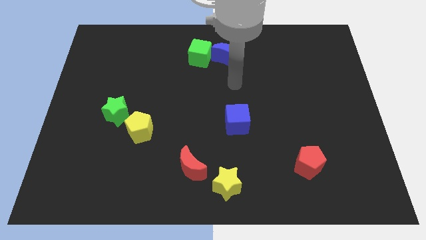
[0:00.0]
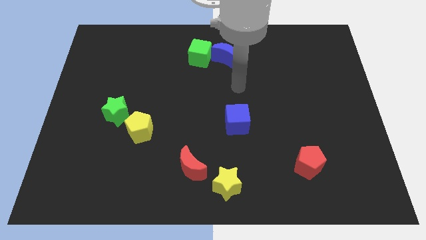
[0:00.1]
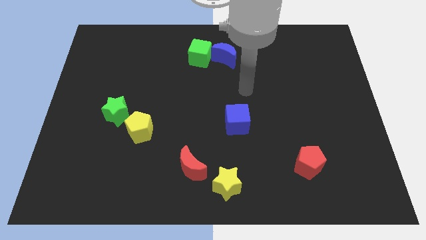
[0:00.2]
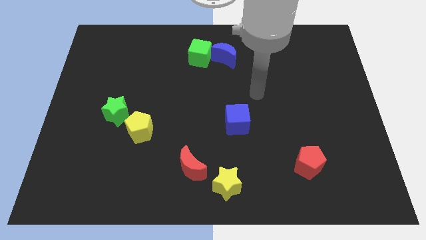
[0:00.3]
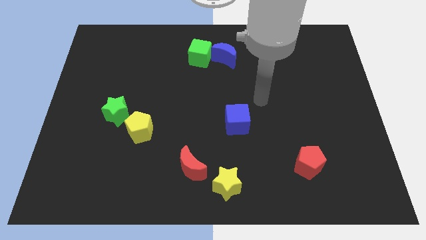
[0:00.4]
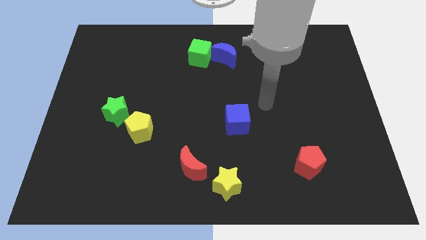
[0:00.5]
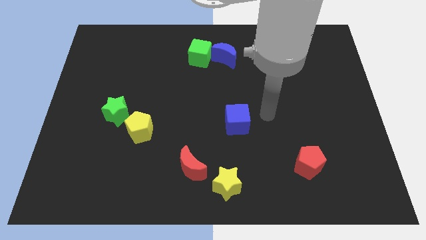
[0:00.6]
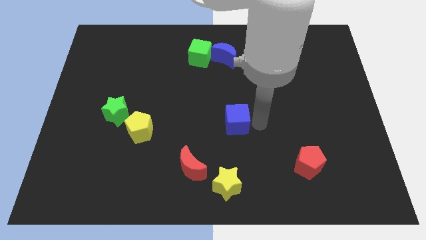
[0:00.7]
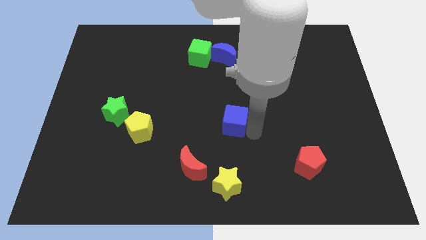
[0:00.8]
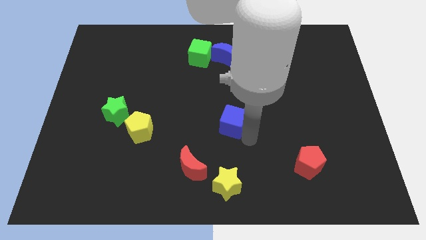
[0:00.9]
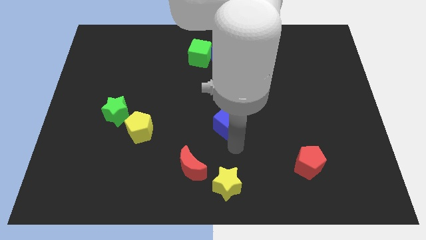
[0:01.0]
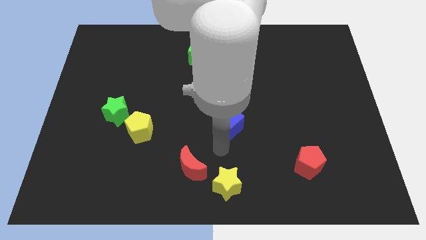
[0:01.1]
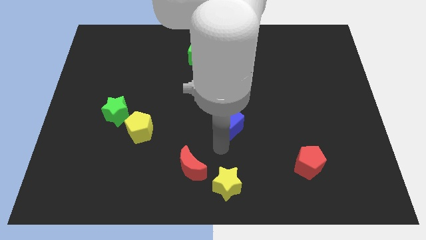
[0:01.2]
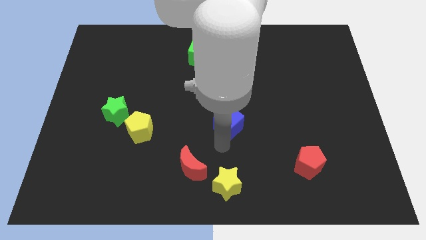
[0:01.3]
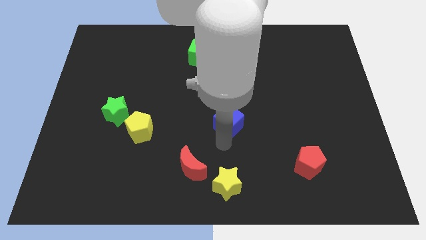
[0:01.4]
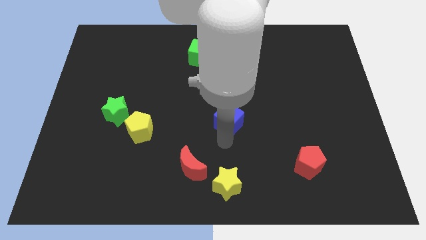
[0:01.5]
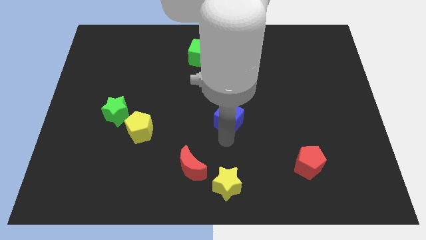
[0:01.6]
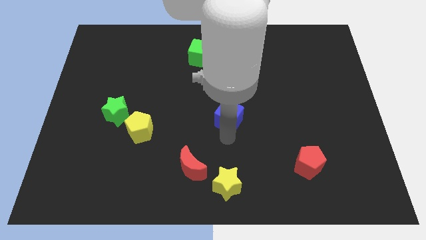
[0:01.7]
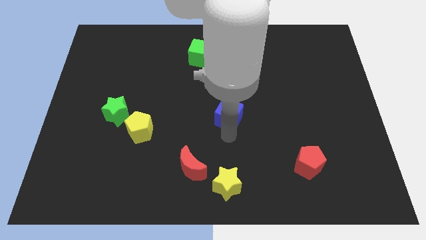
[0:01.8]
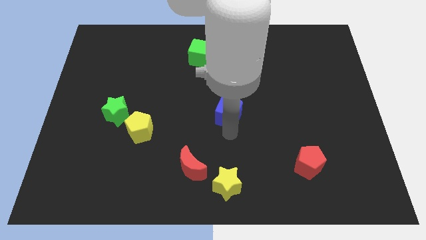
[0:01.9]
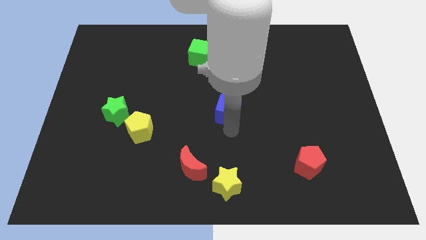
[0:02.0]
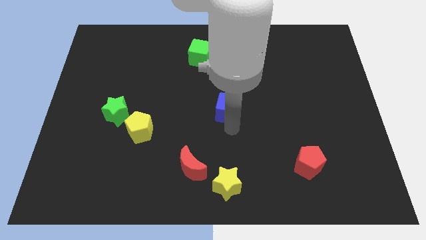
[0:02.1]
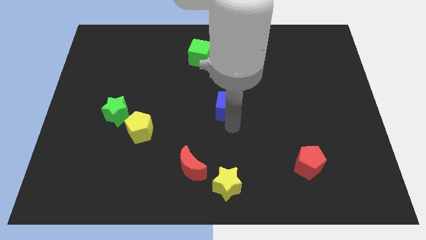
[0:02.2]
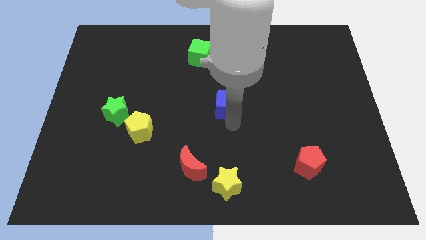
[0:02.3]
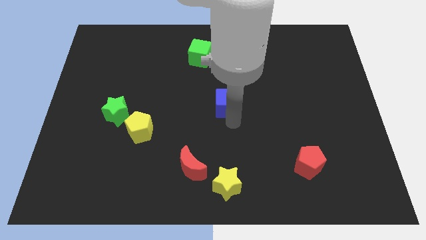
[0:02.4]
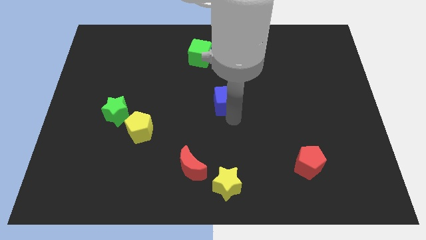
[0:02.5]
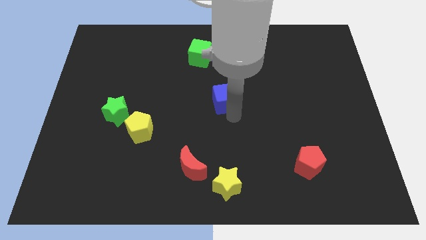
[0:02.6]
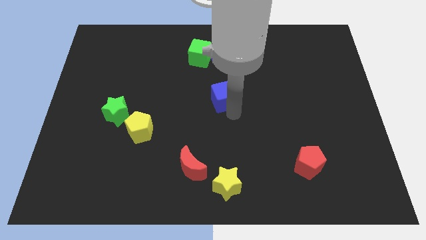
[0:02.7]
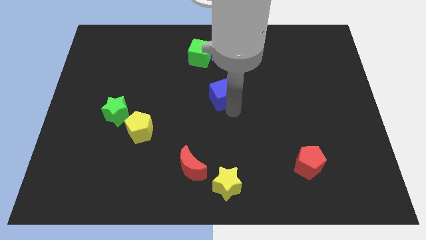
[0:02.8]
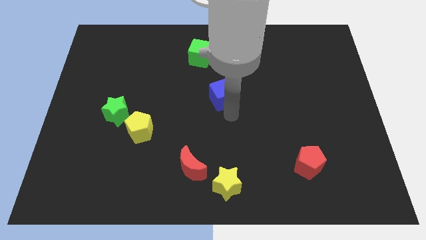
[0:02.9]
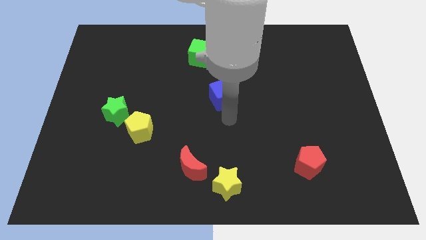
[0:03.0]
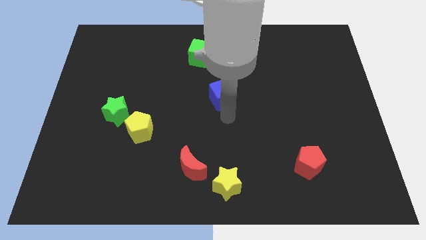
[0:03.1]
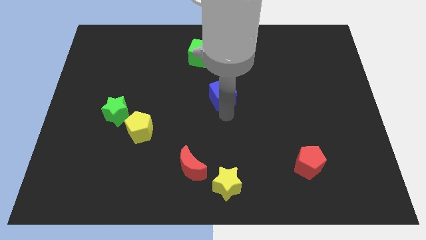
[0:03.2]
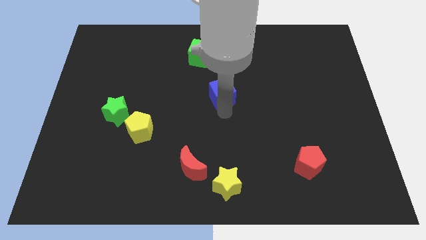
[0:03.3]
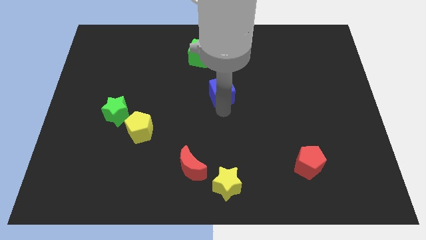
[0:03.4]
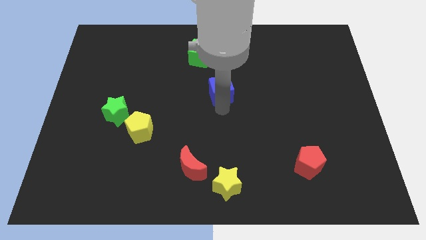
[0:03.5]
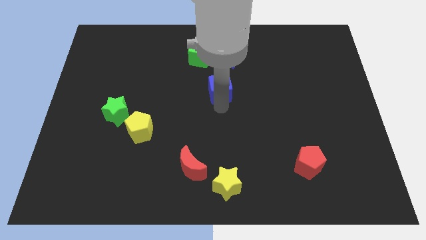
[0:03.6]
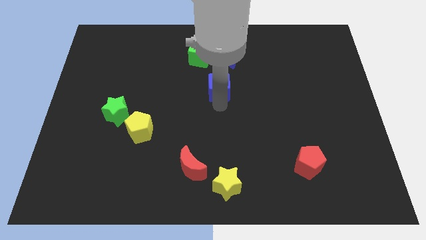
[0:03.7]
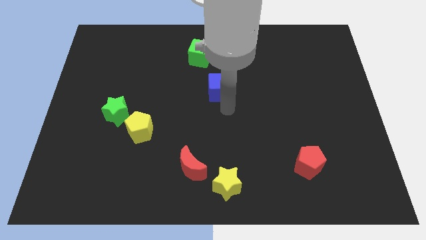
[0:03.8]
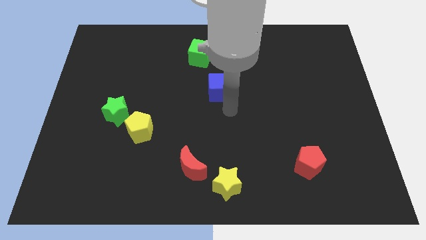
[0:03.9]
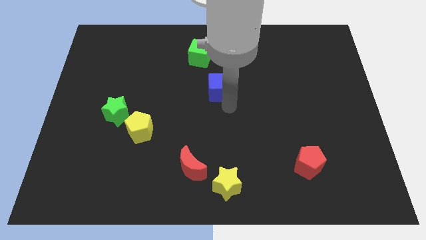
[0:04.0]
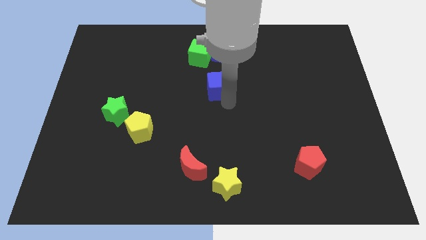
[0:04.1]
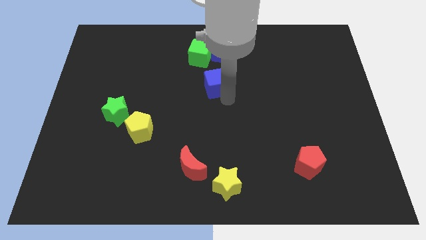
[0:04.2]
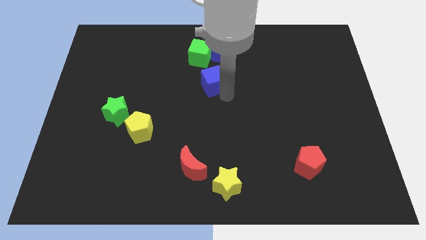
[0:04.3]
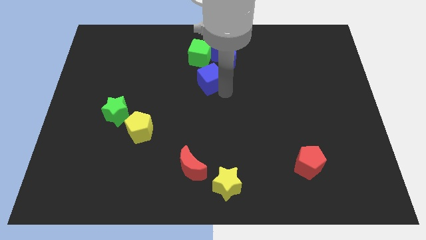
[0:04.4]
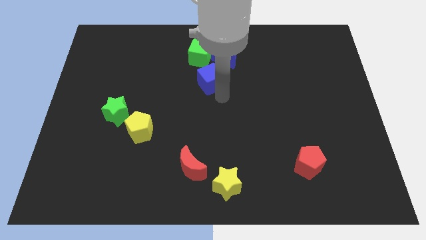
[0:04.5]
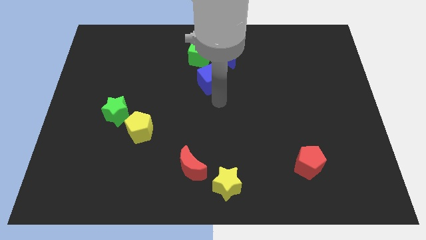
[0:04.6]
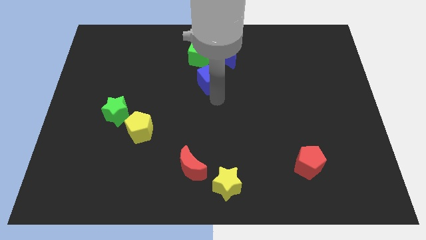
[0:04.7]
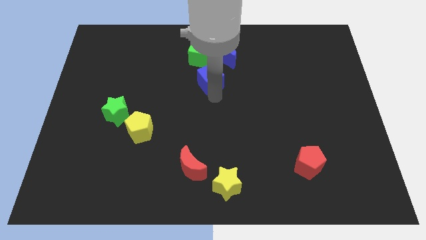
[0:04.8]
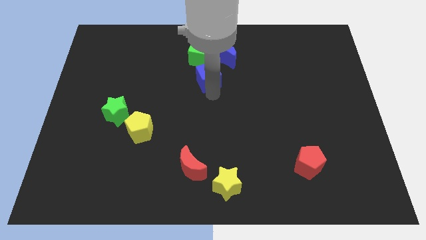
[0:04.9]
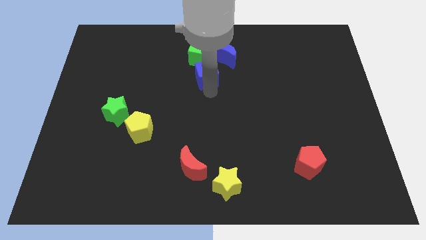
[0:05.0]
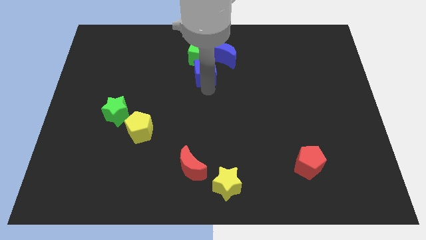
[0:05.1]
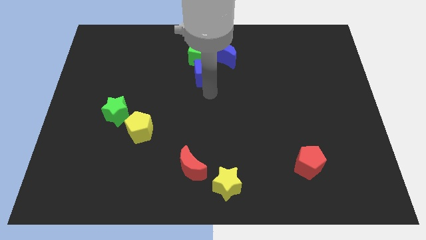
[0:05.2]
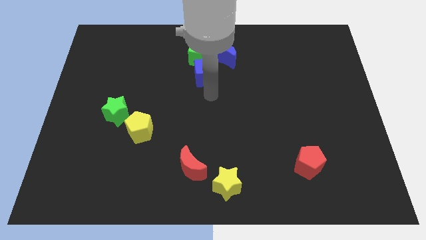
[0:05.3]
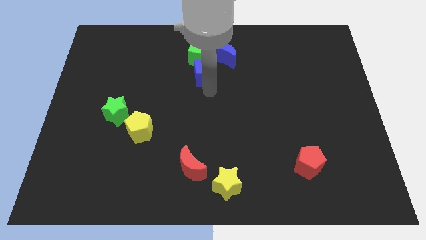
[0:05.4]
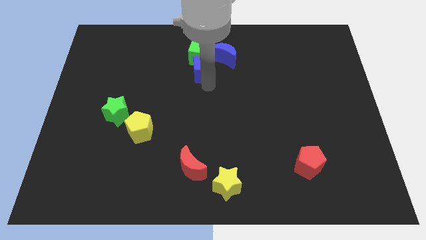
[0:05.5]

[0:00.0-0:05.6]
push the blue cube towards the green cube
